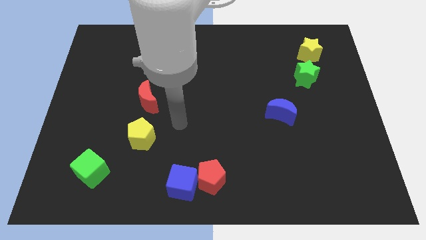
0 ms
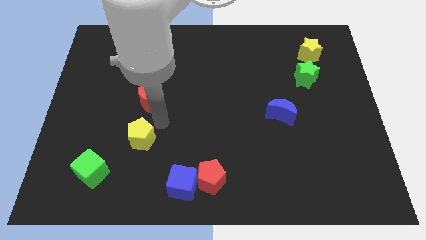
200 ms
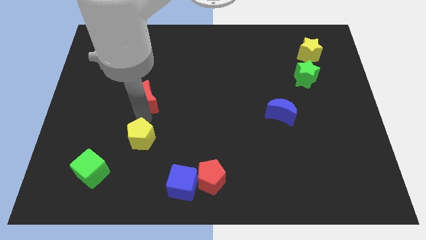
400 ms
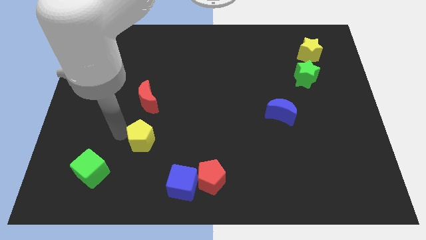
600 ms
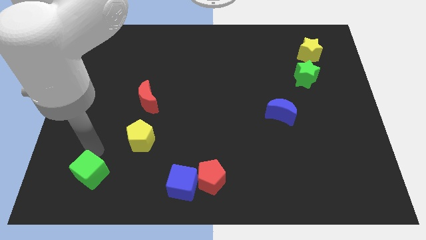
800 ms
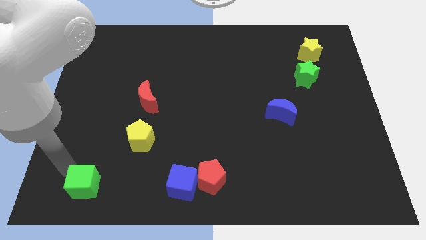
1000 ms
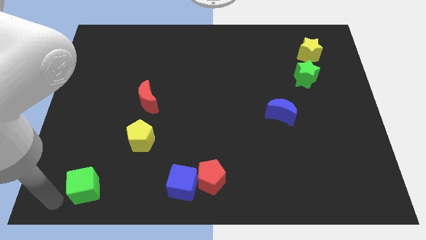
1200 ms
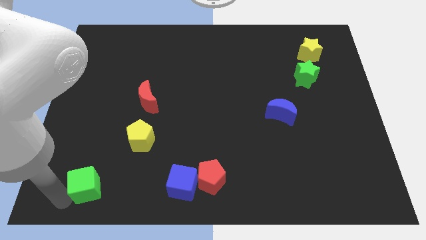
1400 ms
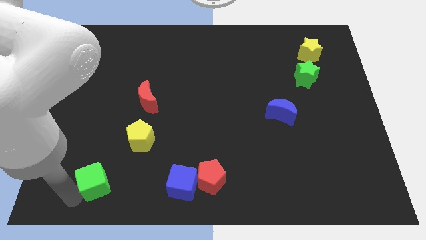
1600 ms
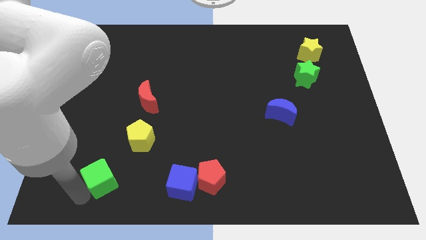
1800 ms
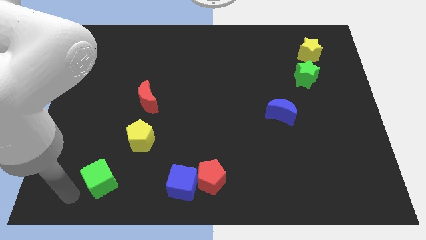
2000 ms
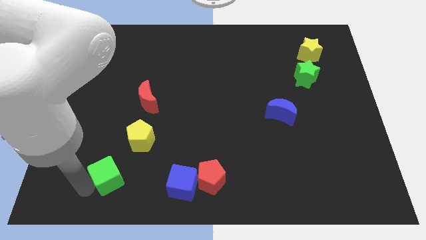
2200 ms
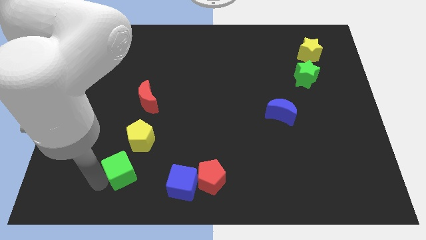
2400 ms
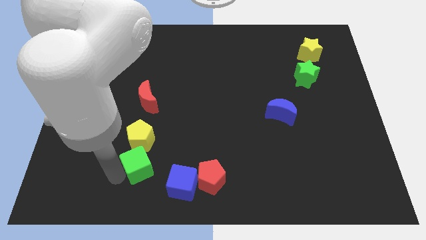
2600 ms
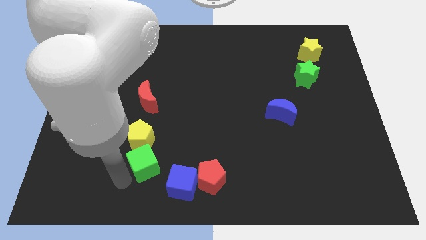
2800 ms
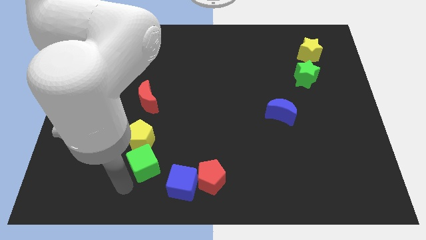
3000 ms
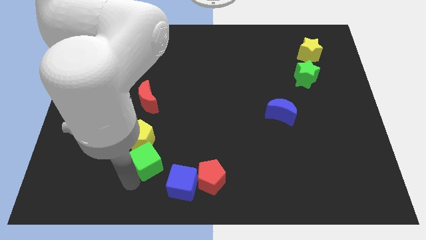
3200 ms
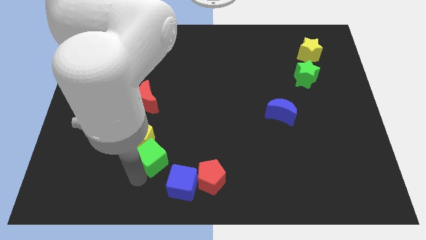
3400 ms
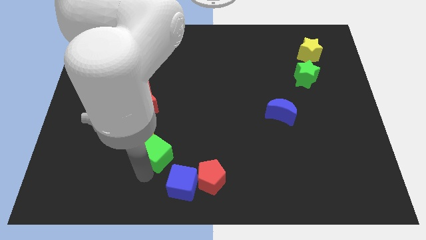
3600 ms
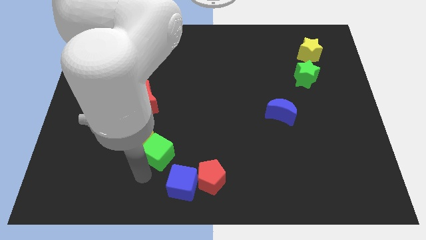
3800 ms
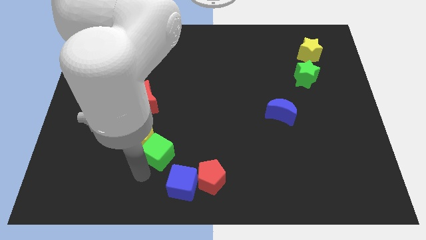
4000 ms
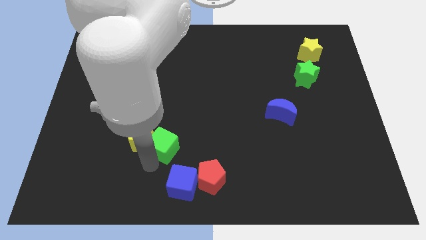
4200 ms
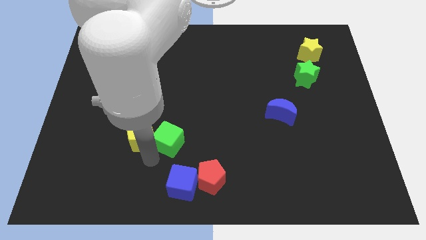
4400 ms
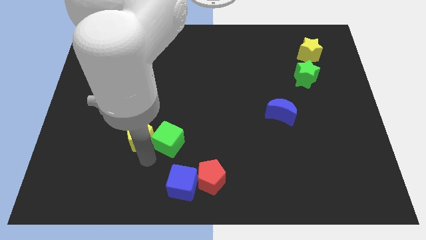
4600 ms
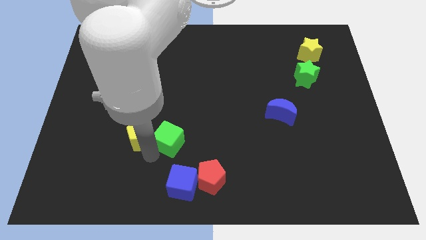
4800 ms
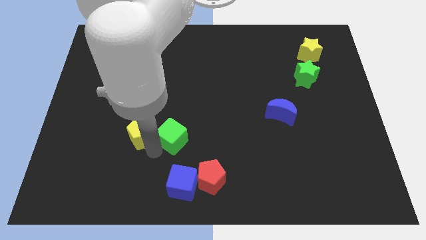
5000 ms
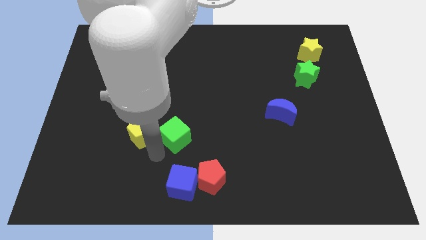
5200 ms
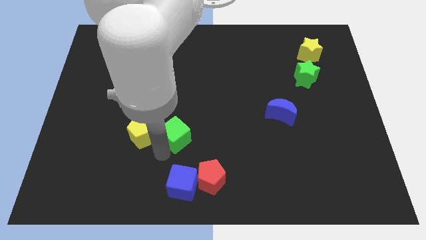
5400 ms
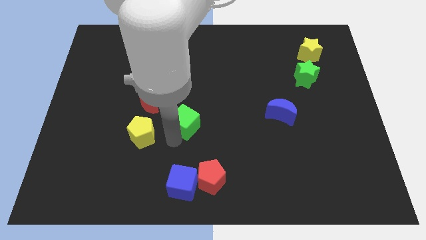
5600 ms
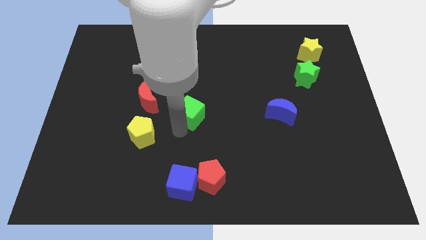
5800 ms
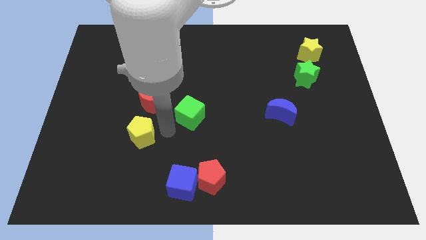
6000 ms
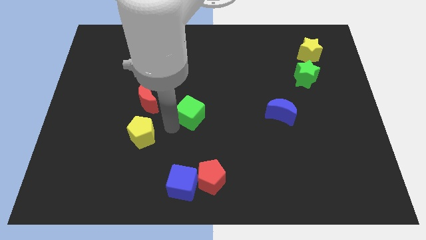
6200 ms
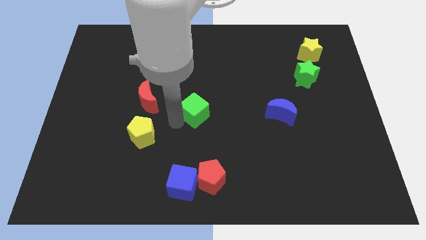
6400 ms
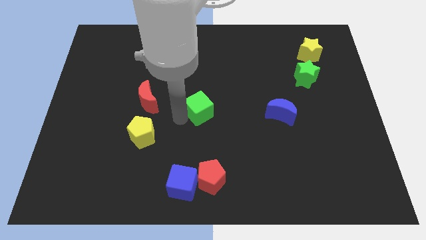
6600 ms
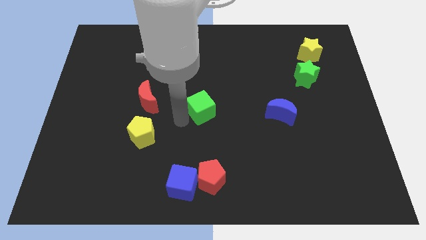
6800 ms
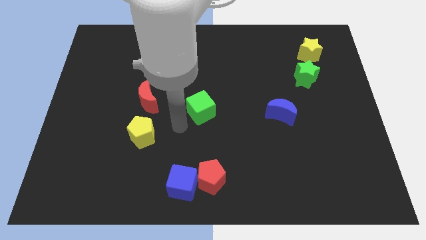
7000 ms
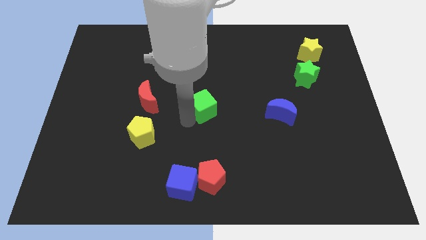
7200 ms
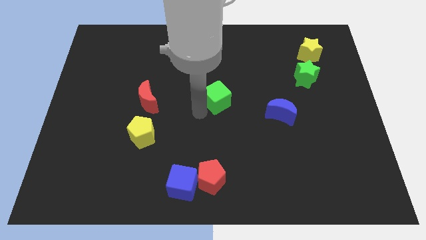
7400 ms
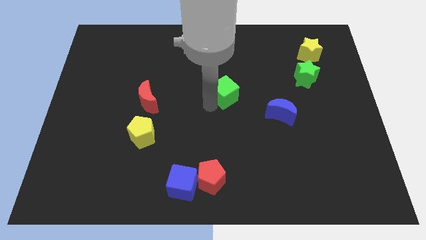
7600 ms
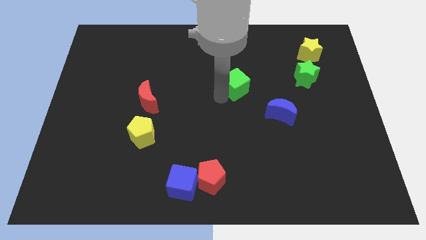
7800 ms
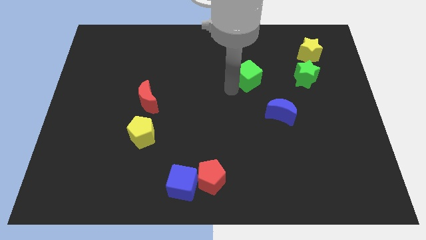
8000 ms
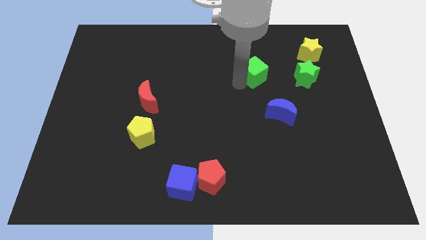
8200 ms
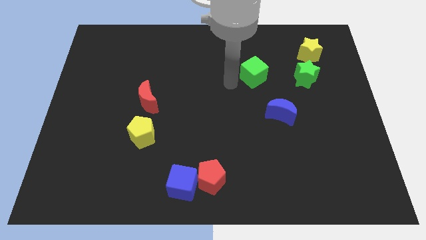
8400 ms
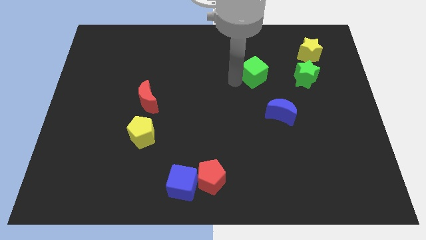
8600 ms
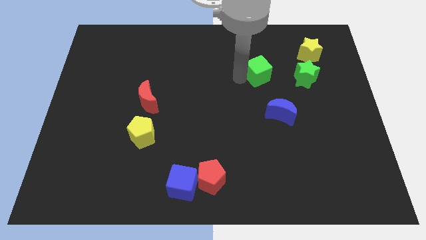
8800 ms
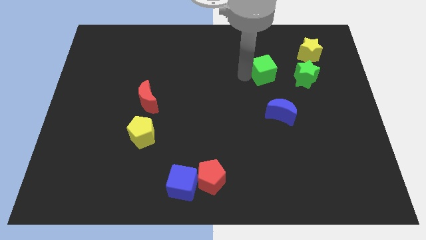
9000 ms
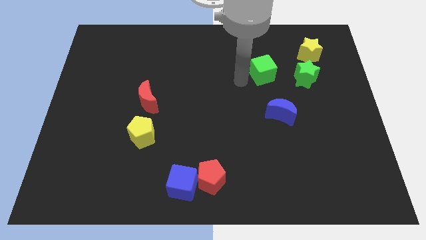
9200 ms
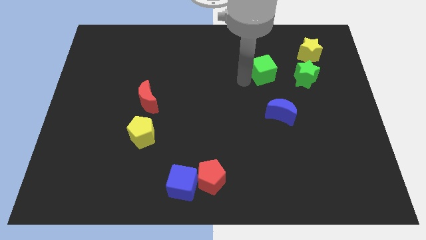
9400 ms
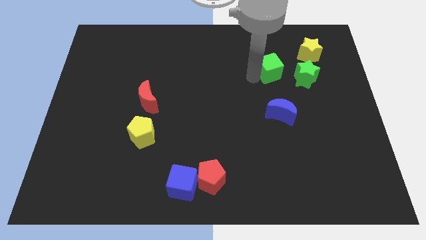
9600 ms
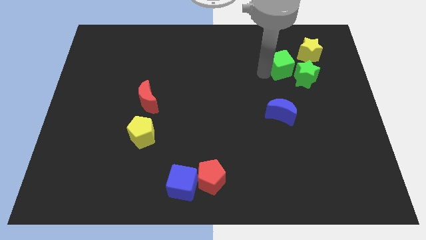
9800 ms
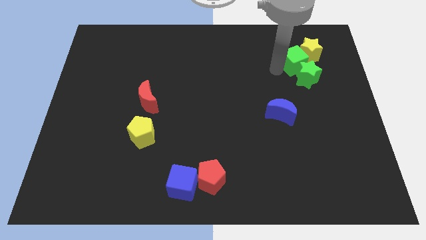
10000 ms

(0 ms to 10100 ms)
slide the green cube towards the yellow star

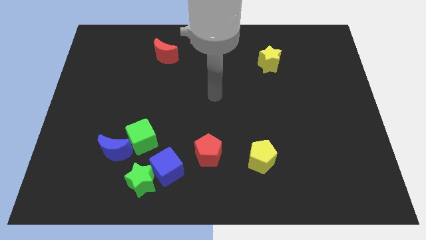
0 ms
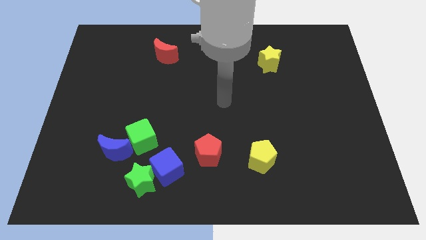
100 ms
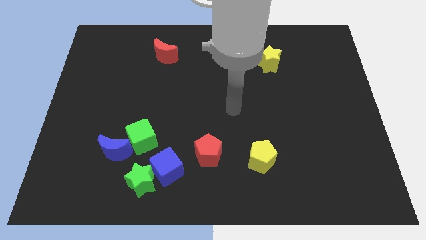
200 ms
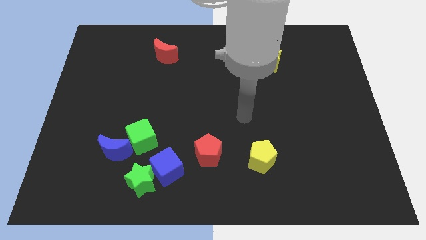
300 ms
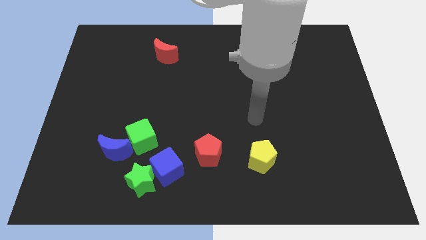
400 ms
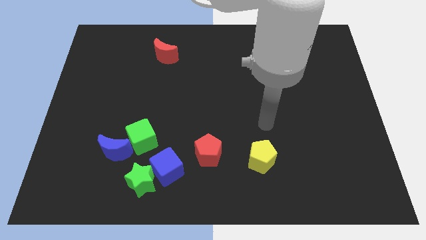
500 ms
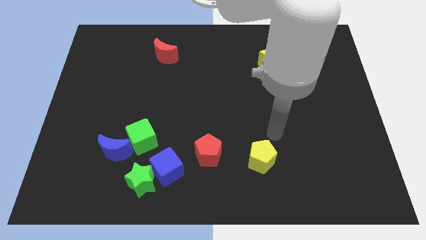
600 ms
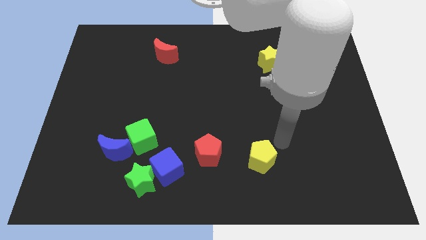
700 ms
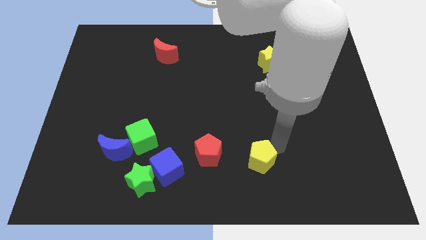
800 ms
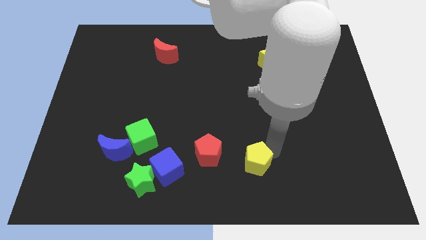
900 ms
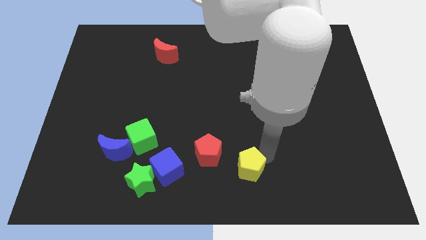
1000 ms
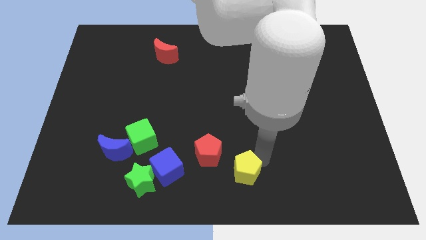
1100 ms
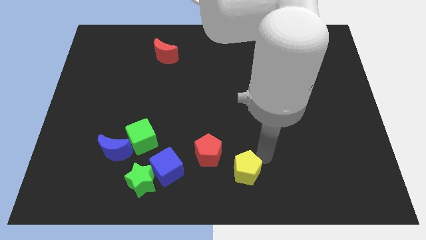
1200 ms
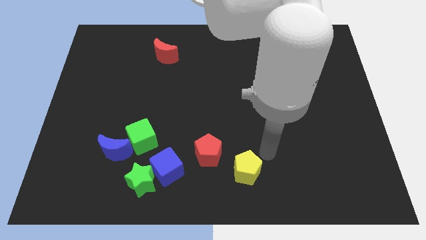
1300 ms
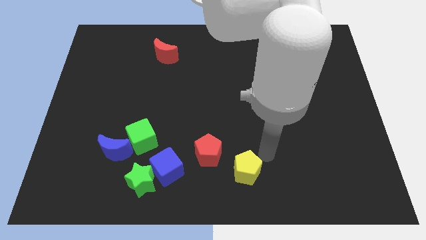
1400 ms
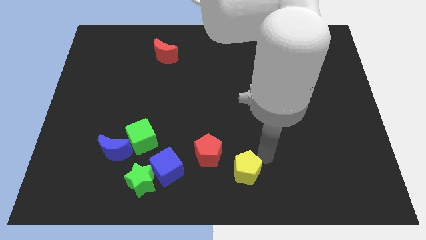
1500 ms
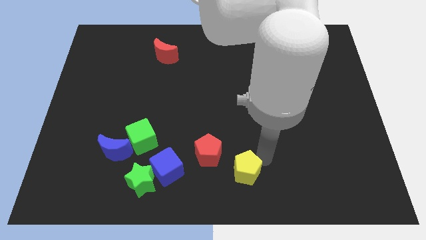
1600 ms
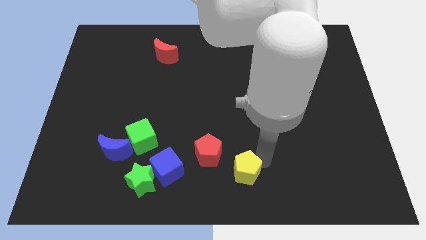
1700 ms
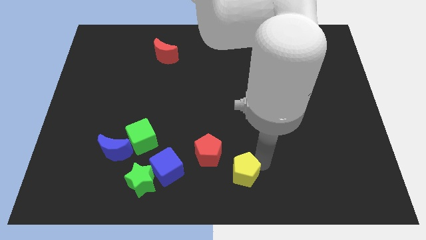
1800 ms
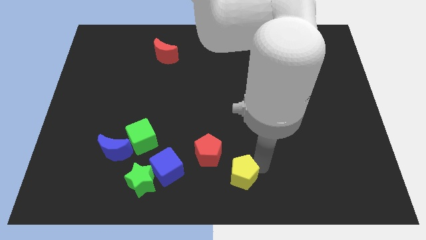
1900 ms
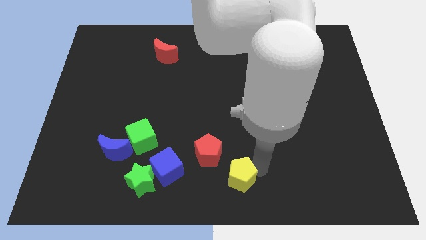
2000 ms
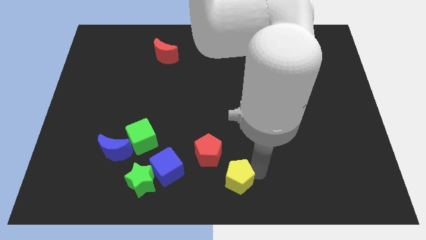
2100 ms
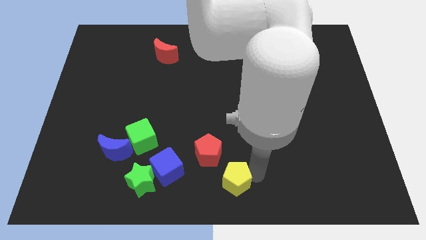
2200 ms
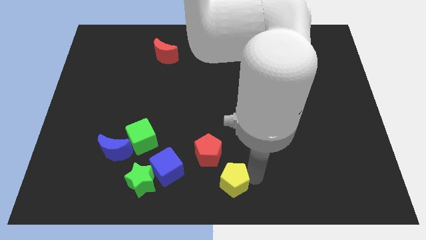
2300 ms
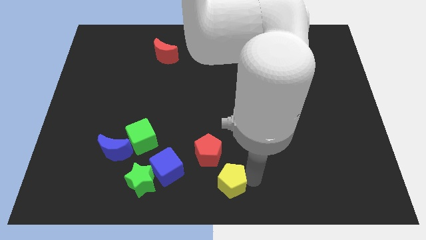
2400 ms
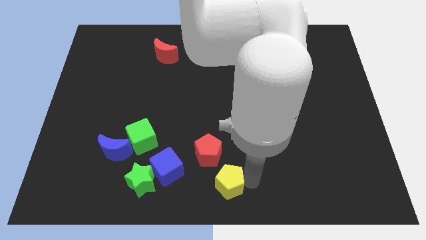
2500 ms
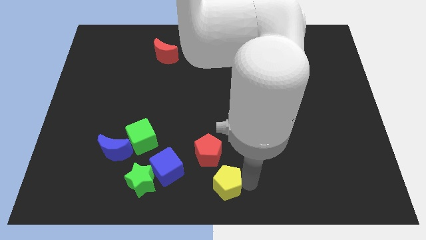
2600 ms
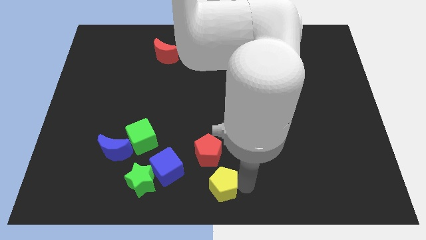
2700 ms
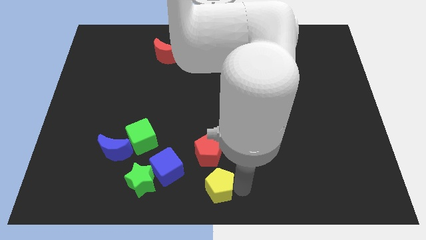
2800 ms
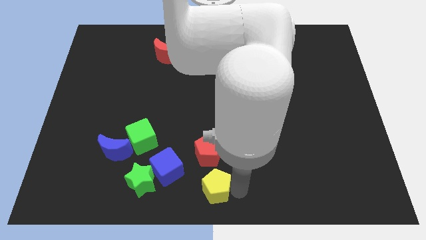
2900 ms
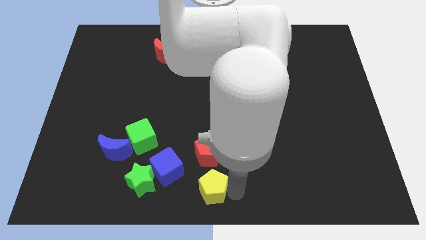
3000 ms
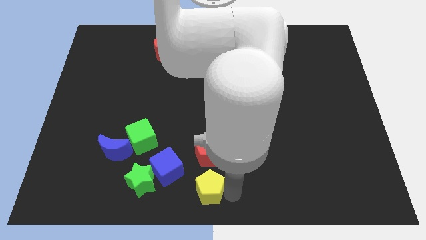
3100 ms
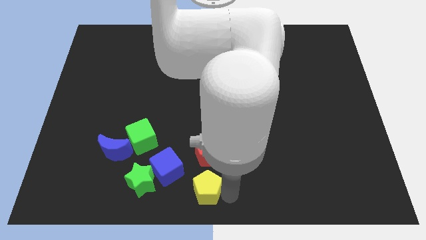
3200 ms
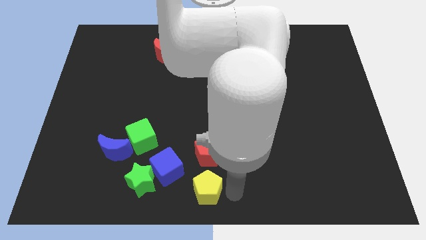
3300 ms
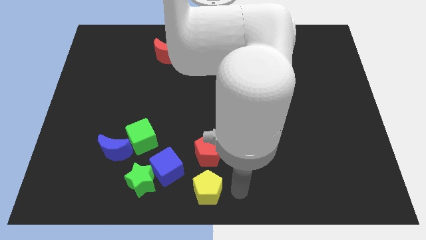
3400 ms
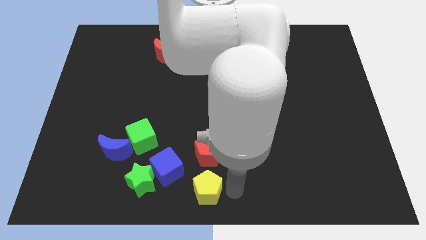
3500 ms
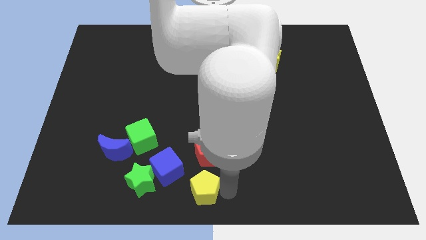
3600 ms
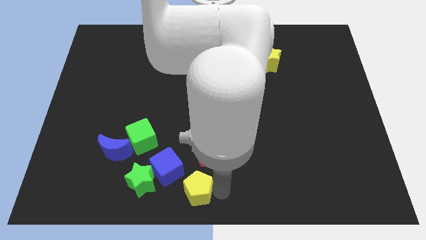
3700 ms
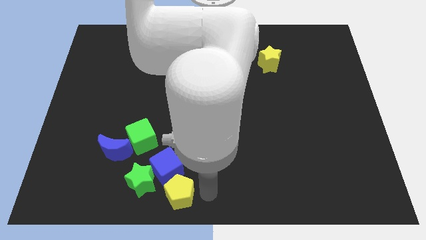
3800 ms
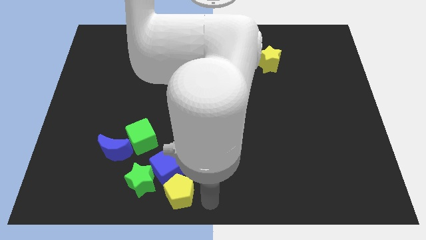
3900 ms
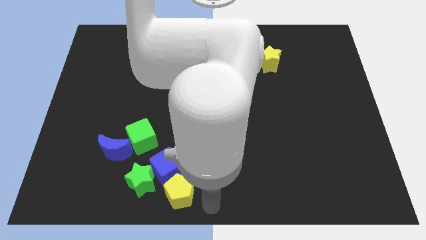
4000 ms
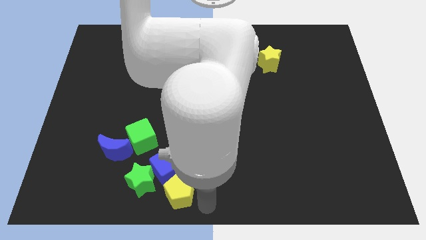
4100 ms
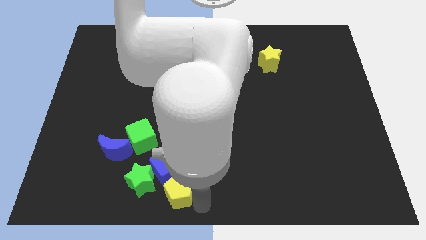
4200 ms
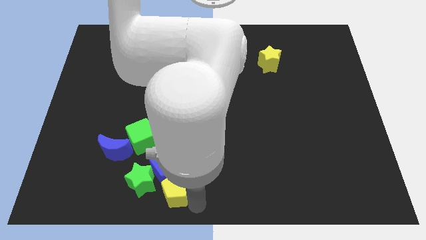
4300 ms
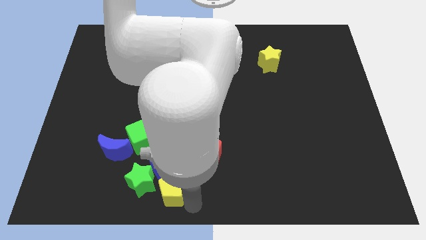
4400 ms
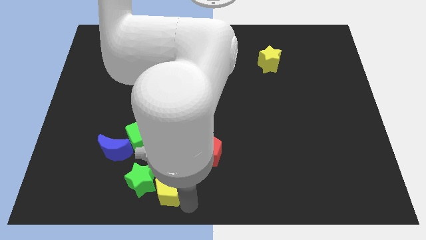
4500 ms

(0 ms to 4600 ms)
put the yellow pentagon to the green star
